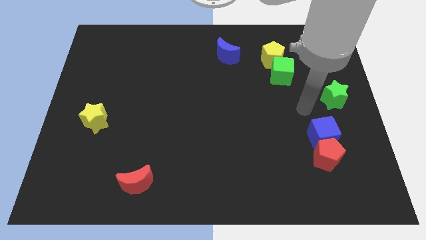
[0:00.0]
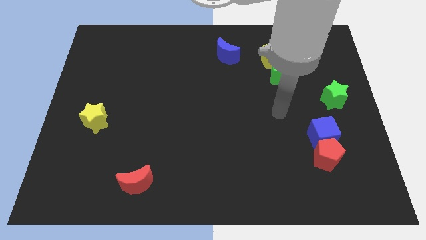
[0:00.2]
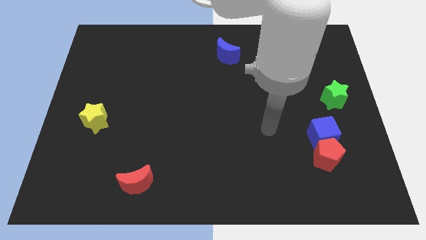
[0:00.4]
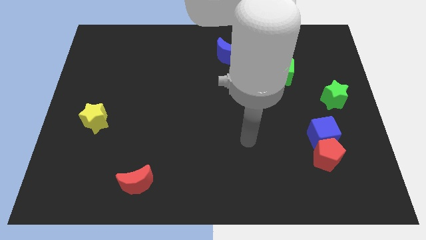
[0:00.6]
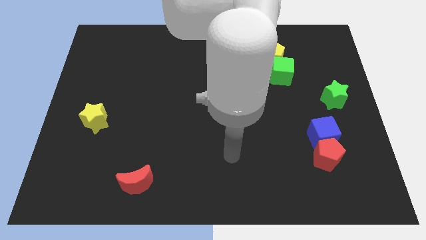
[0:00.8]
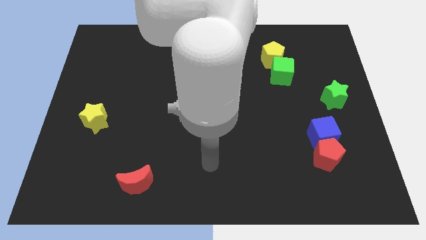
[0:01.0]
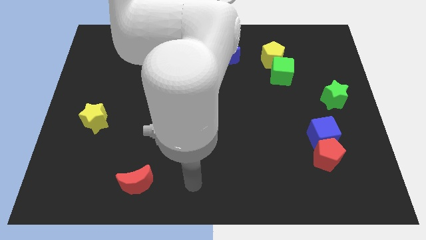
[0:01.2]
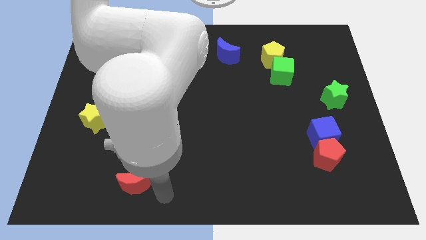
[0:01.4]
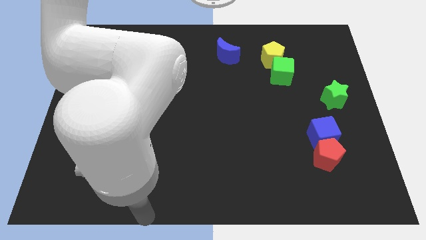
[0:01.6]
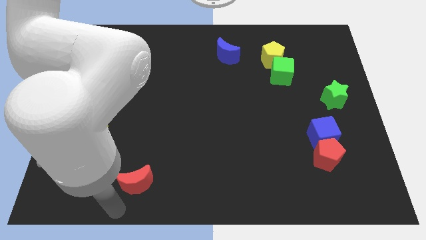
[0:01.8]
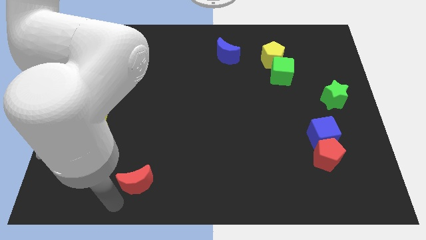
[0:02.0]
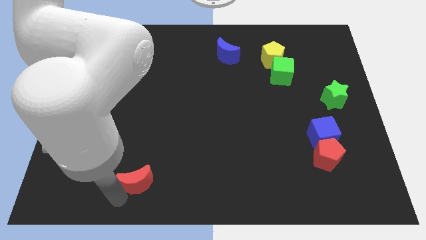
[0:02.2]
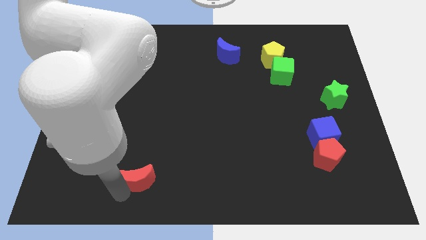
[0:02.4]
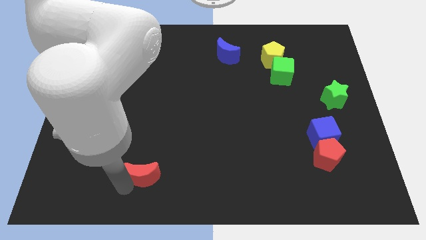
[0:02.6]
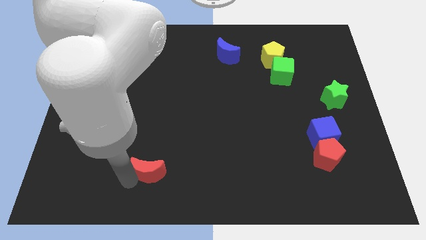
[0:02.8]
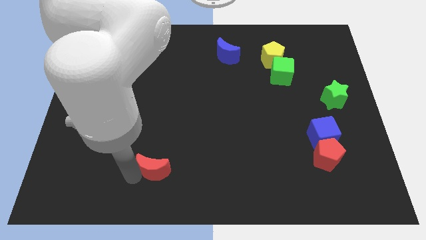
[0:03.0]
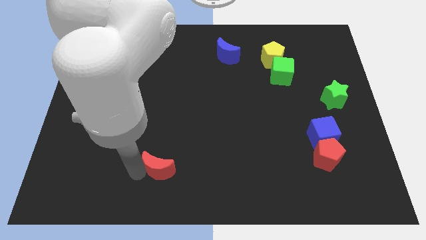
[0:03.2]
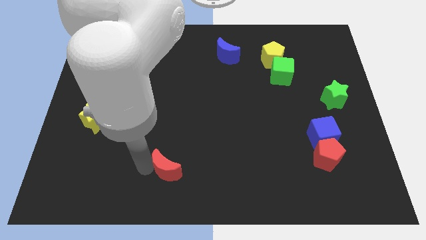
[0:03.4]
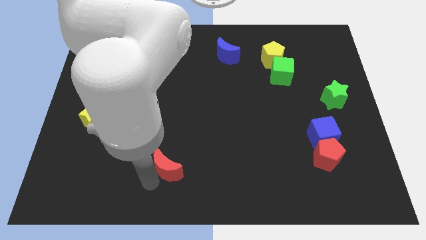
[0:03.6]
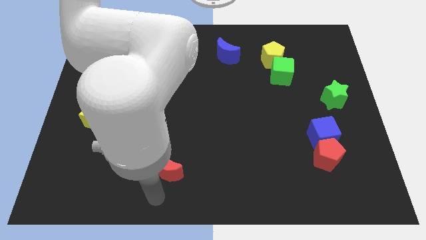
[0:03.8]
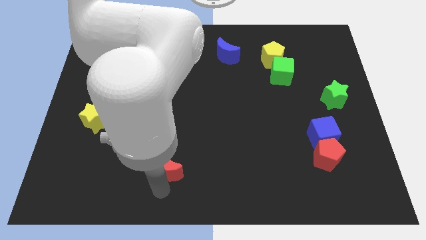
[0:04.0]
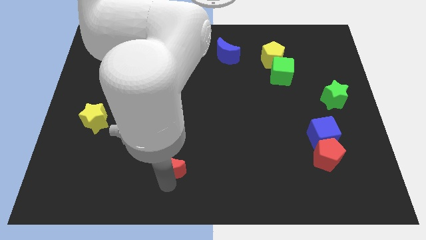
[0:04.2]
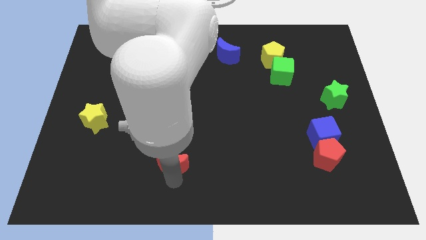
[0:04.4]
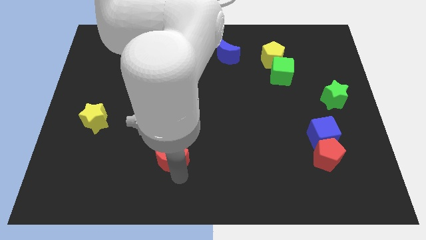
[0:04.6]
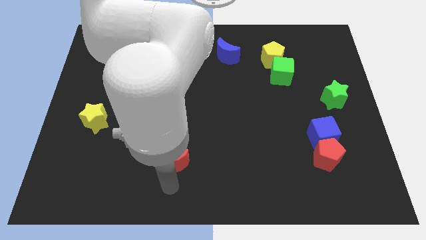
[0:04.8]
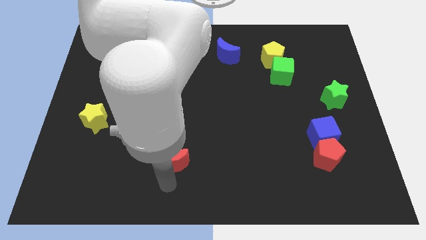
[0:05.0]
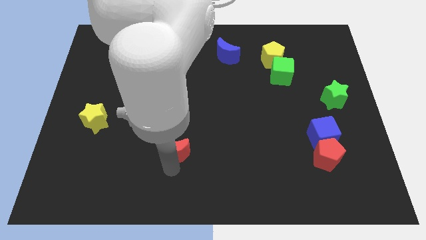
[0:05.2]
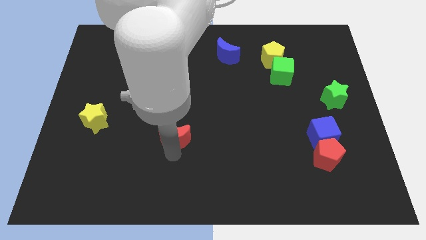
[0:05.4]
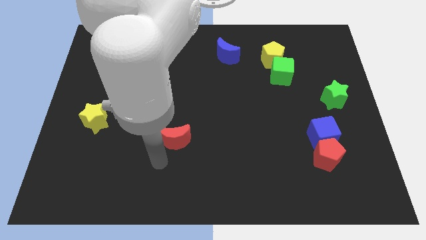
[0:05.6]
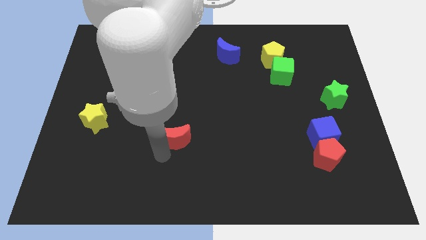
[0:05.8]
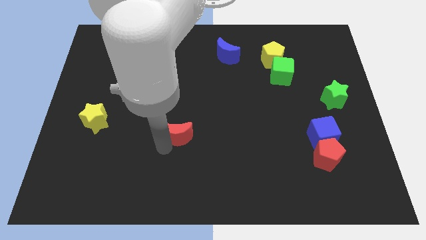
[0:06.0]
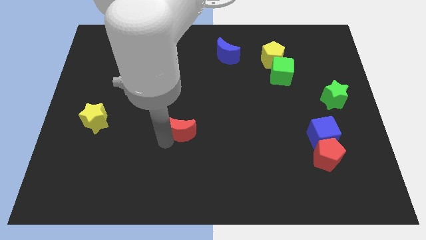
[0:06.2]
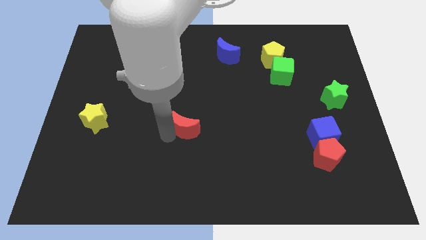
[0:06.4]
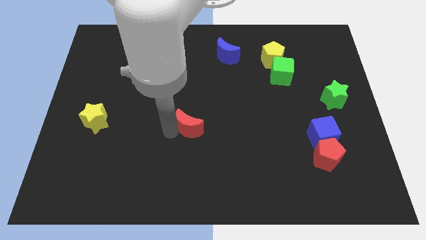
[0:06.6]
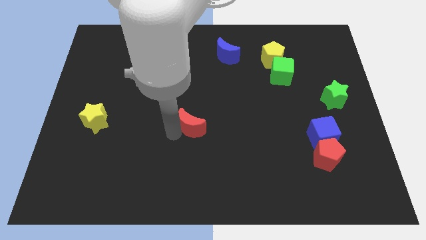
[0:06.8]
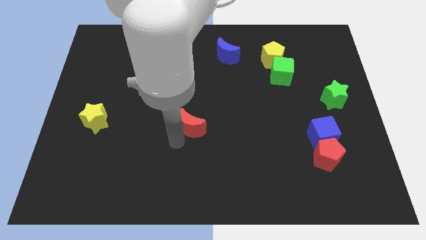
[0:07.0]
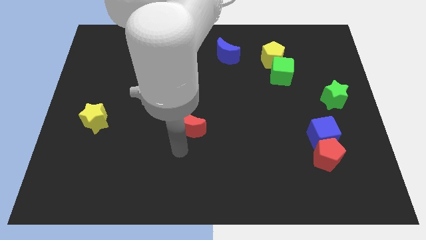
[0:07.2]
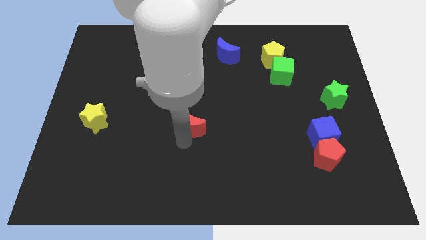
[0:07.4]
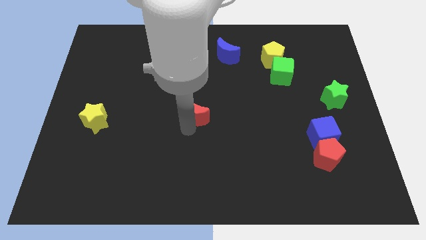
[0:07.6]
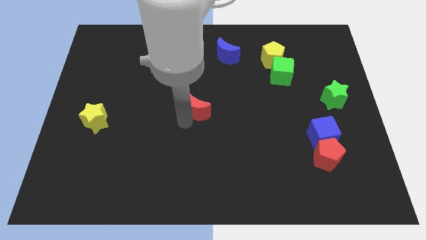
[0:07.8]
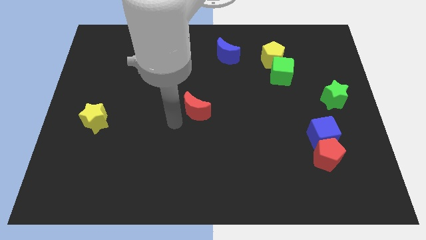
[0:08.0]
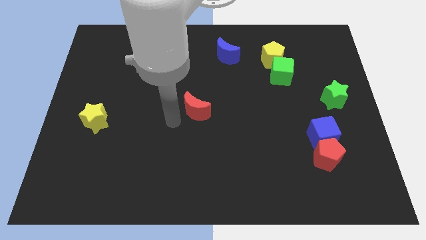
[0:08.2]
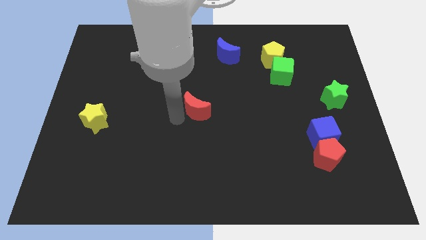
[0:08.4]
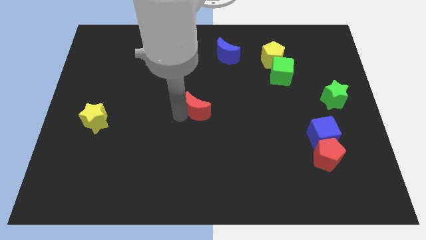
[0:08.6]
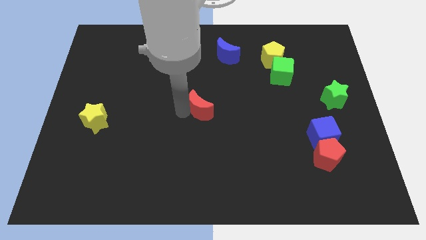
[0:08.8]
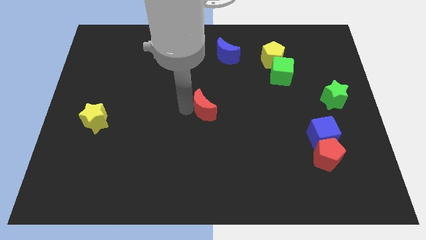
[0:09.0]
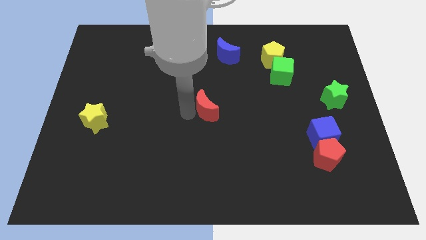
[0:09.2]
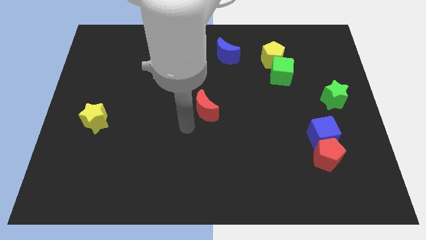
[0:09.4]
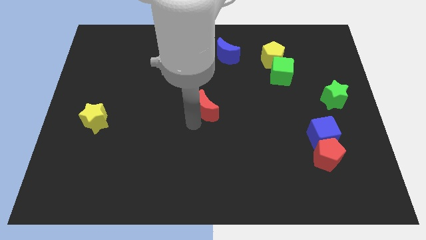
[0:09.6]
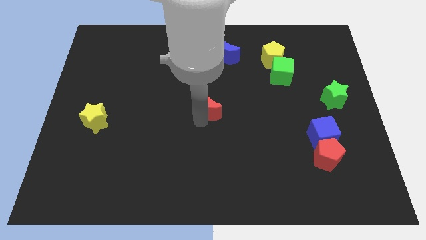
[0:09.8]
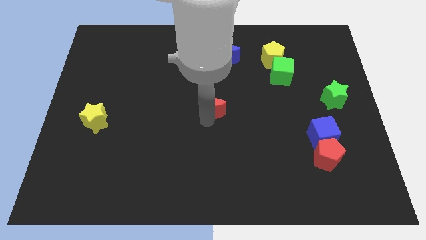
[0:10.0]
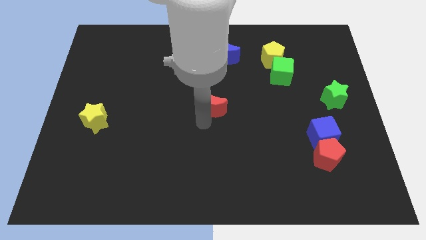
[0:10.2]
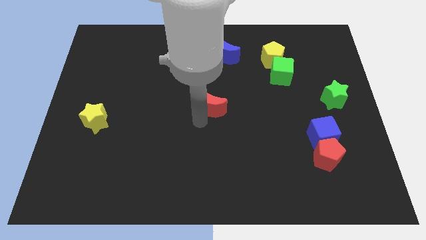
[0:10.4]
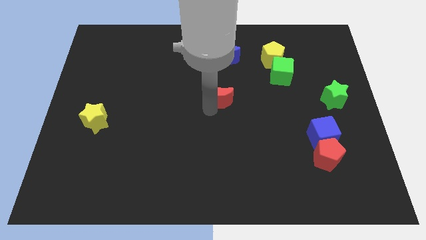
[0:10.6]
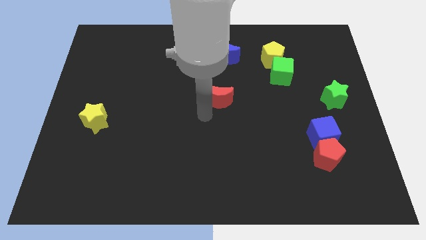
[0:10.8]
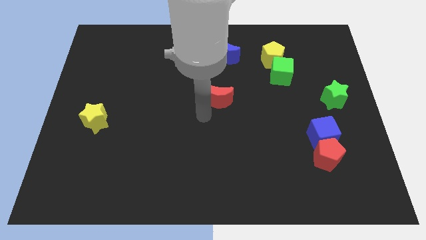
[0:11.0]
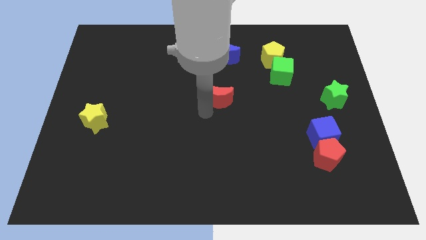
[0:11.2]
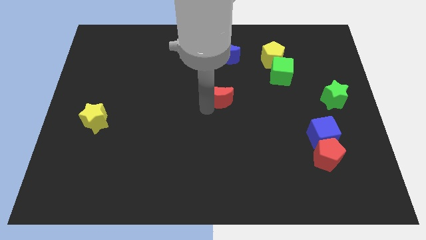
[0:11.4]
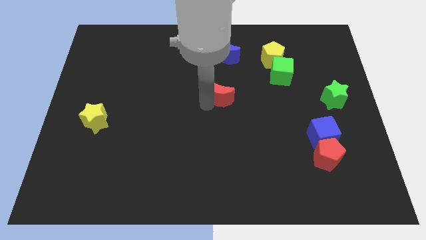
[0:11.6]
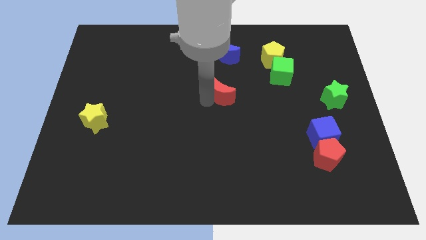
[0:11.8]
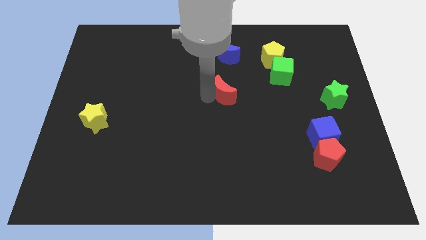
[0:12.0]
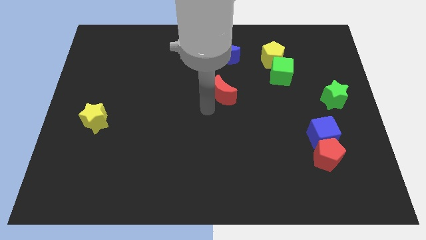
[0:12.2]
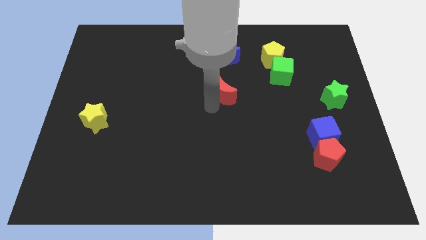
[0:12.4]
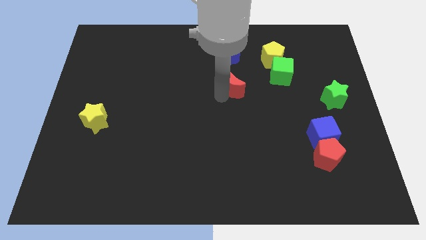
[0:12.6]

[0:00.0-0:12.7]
put the red moon just left of the green cube
